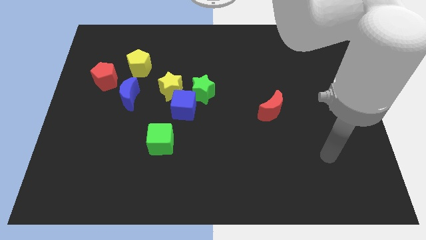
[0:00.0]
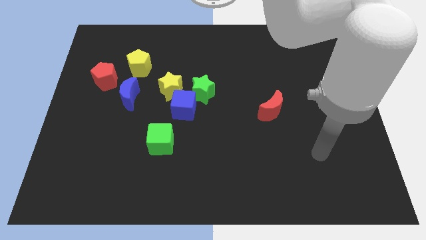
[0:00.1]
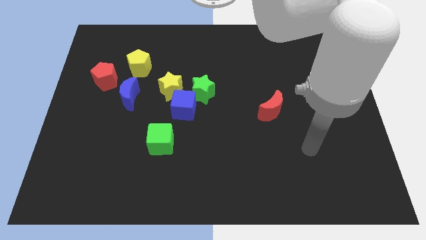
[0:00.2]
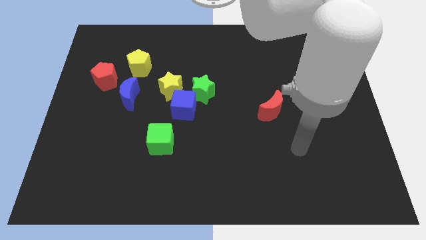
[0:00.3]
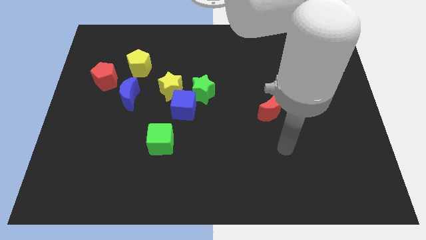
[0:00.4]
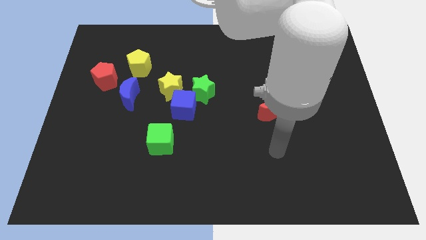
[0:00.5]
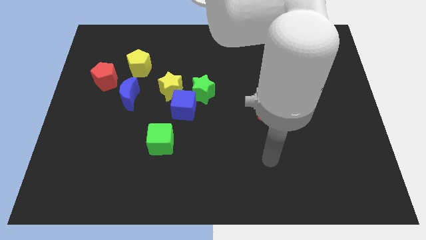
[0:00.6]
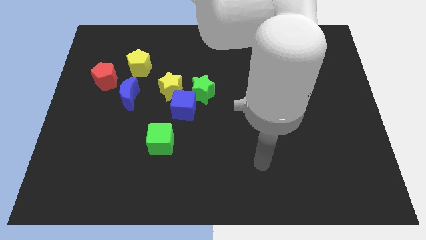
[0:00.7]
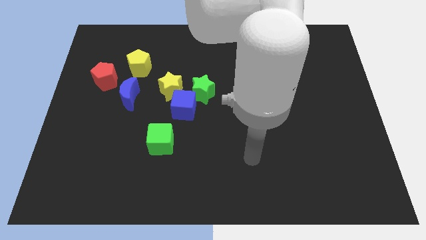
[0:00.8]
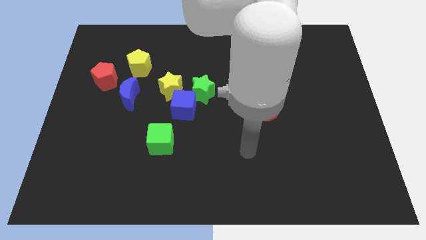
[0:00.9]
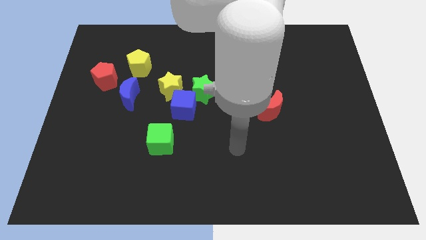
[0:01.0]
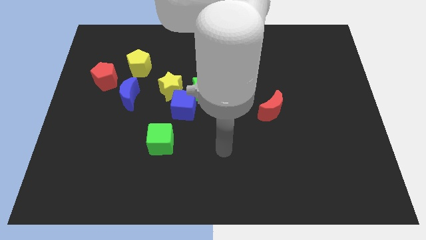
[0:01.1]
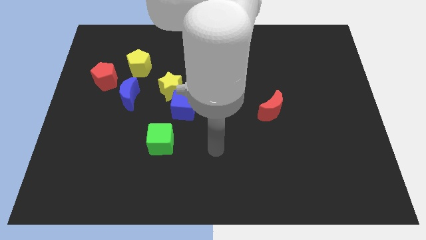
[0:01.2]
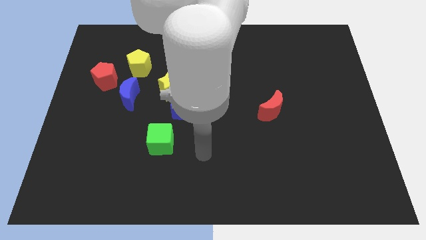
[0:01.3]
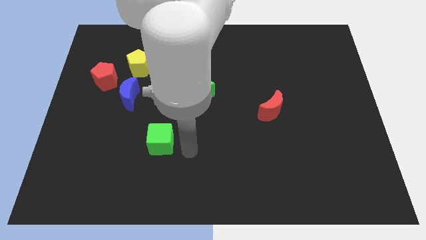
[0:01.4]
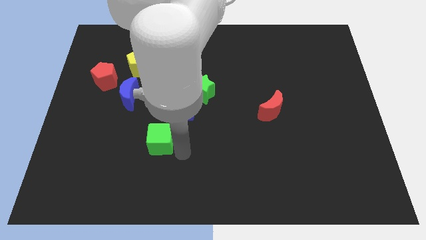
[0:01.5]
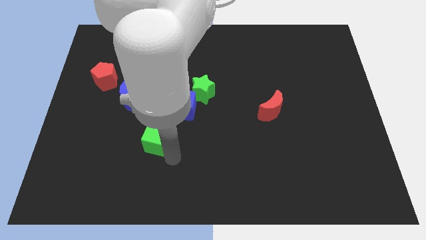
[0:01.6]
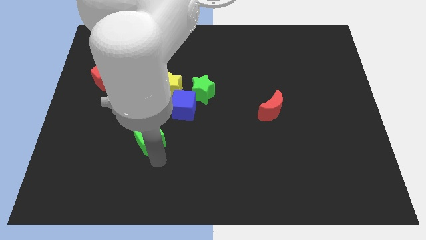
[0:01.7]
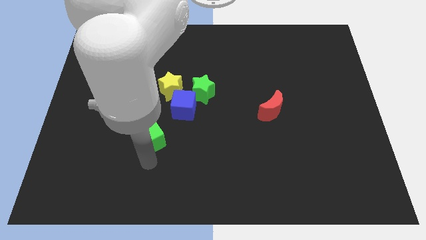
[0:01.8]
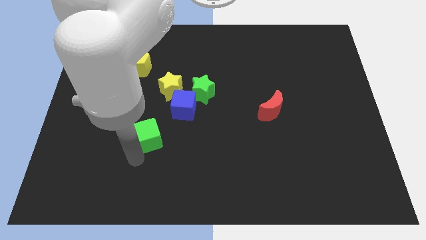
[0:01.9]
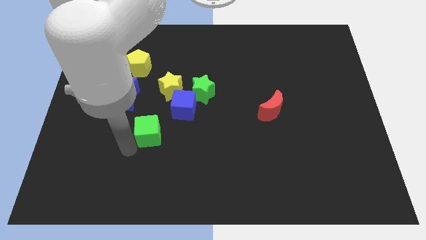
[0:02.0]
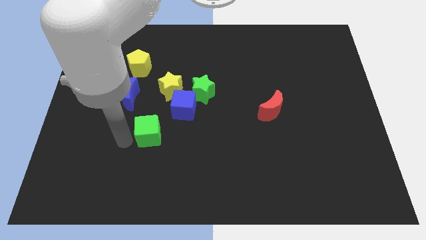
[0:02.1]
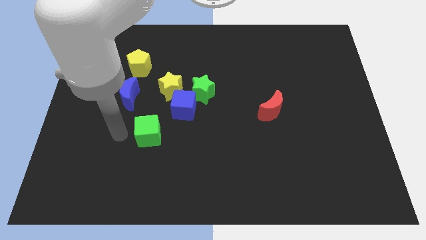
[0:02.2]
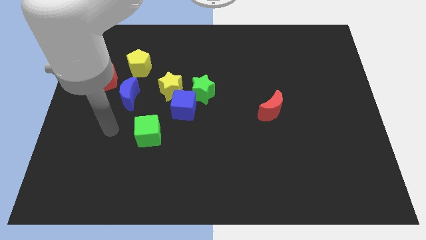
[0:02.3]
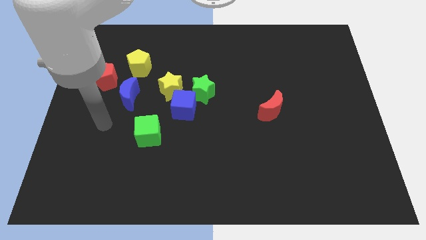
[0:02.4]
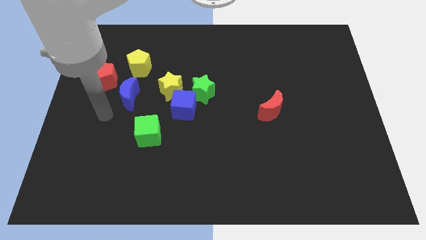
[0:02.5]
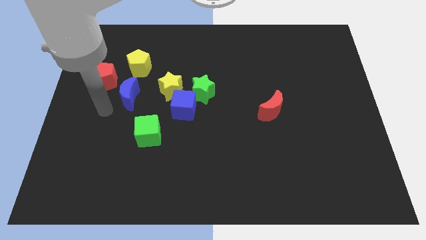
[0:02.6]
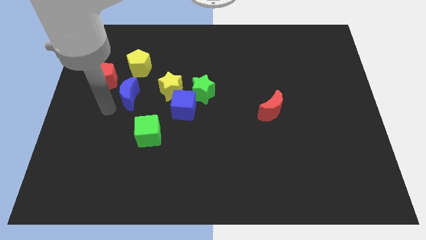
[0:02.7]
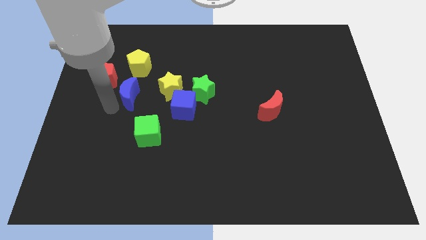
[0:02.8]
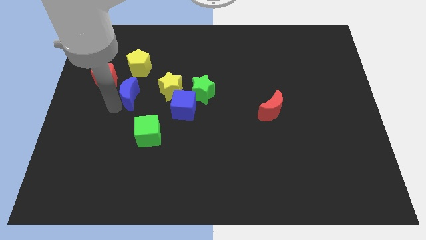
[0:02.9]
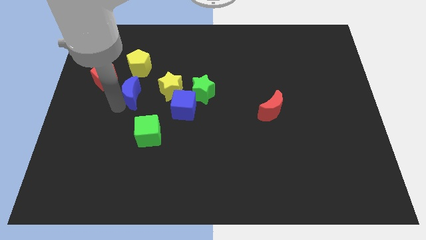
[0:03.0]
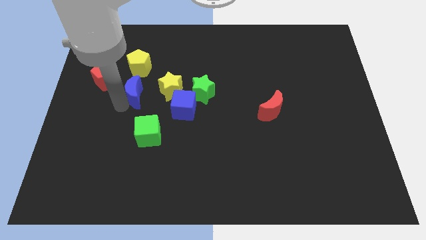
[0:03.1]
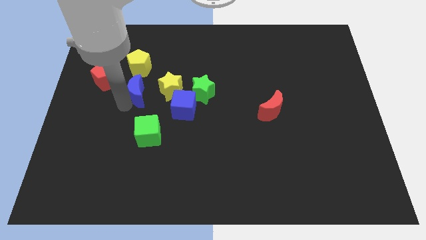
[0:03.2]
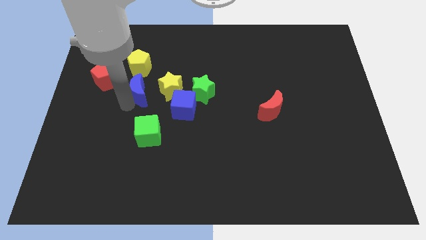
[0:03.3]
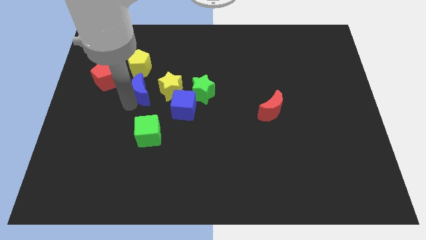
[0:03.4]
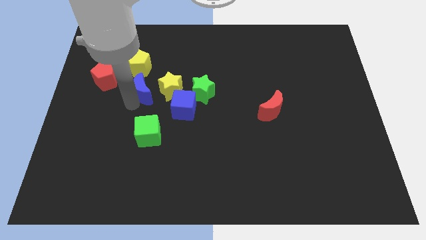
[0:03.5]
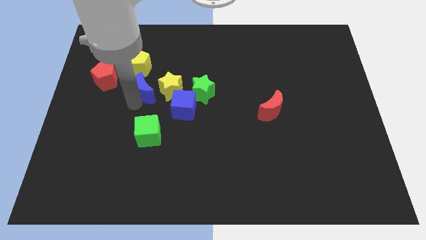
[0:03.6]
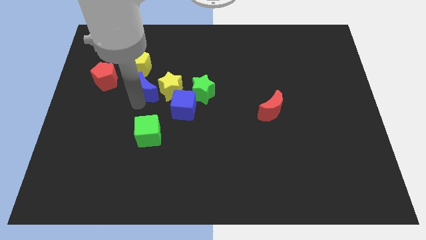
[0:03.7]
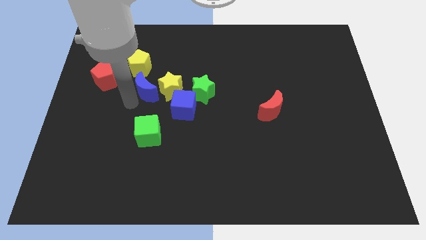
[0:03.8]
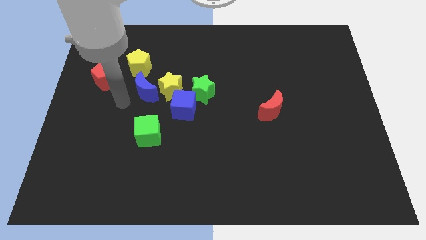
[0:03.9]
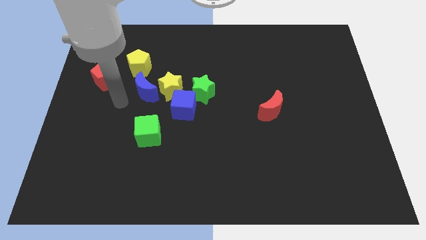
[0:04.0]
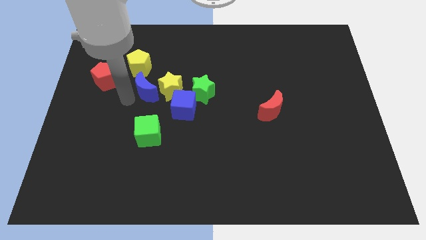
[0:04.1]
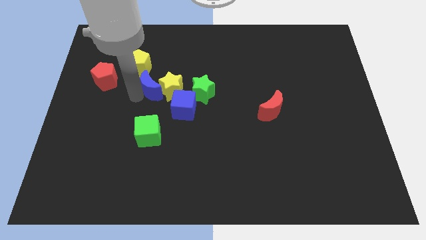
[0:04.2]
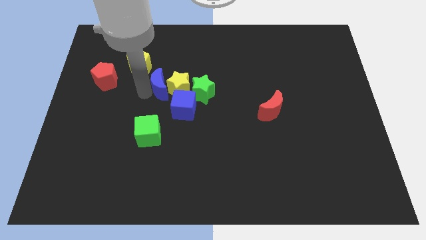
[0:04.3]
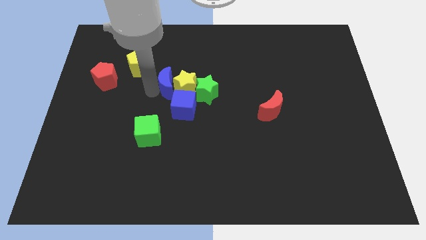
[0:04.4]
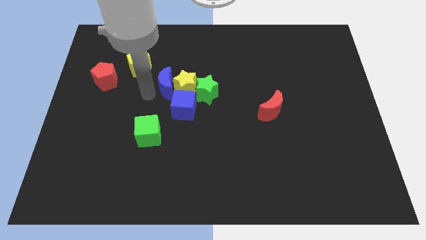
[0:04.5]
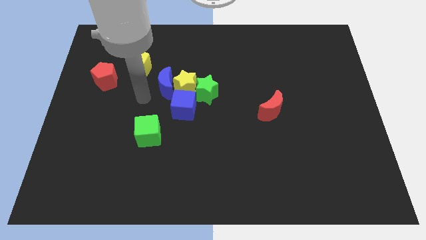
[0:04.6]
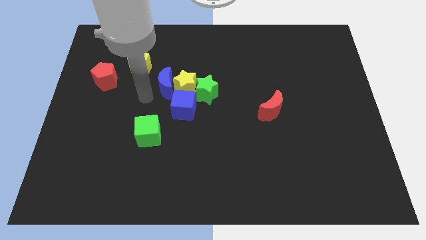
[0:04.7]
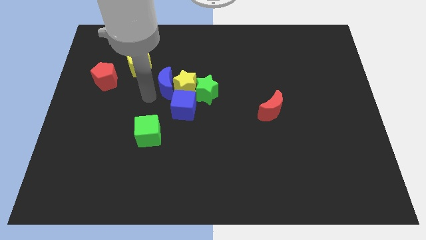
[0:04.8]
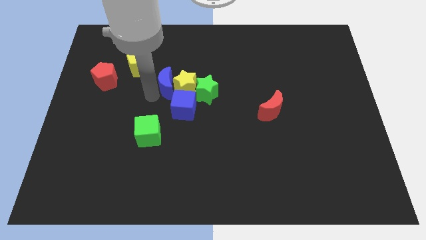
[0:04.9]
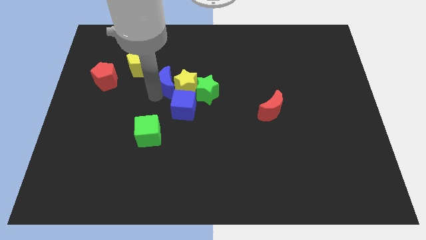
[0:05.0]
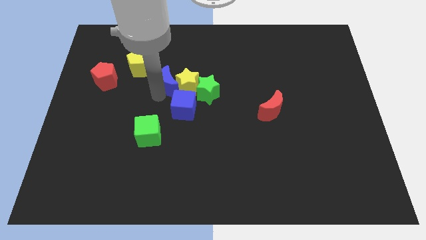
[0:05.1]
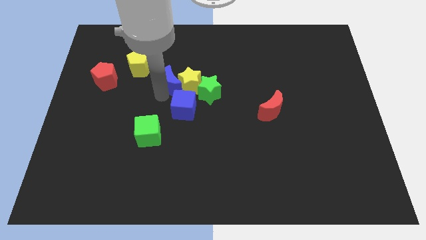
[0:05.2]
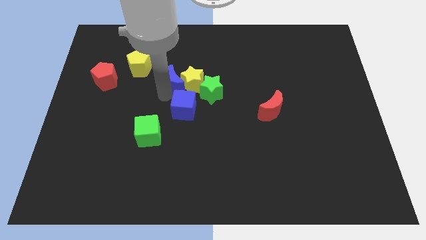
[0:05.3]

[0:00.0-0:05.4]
slide the blue moon diagonally up and to the left of the green star

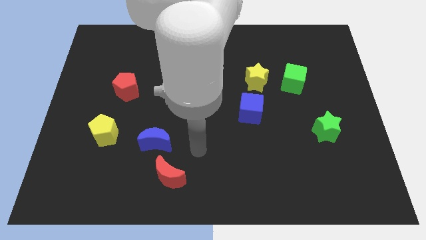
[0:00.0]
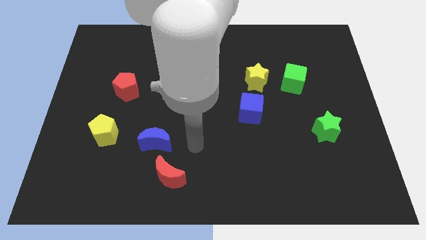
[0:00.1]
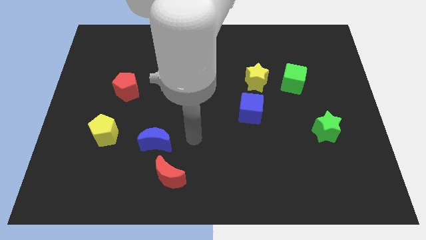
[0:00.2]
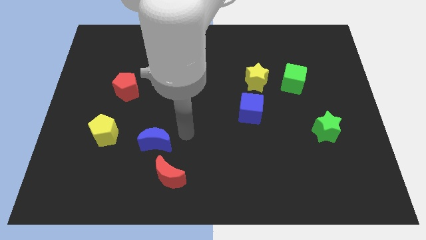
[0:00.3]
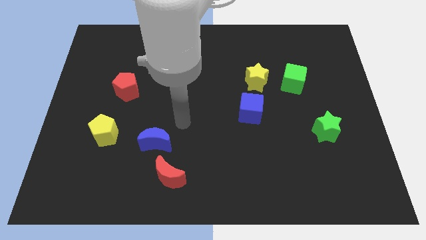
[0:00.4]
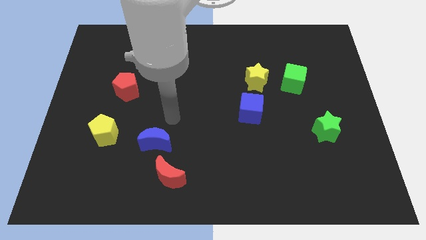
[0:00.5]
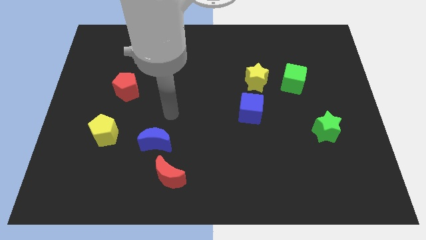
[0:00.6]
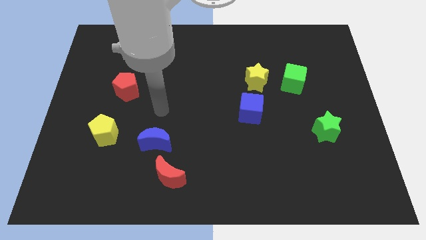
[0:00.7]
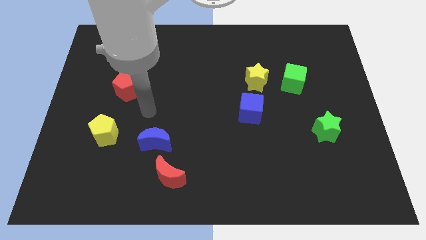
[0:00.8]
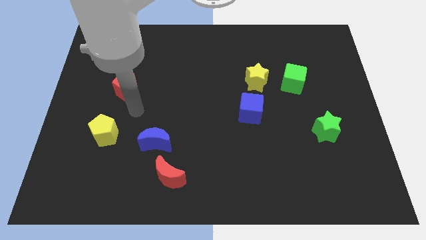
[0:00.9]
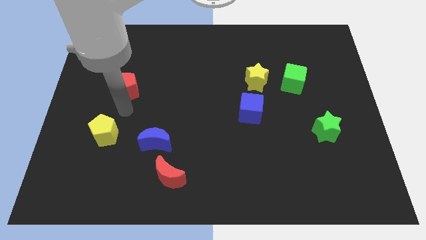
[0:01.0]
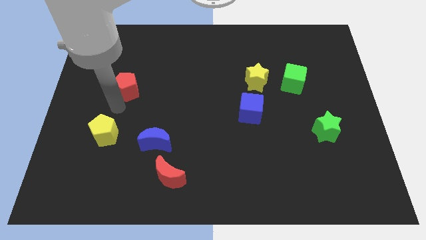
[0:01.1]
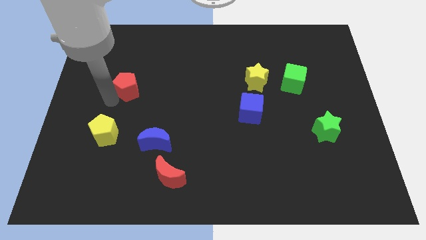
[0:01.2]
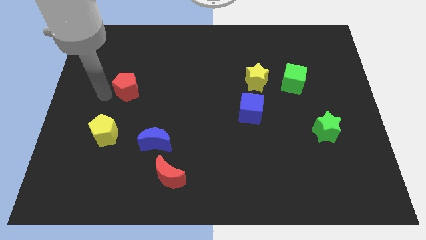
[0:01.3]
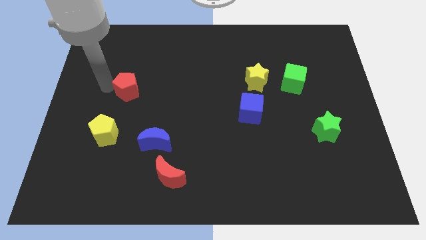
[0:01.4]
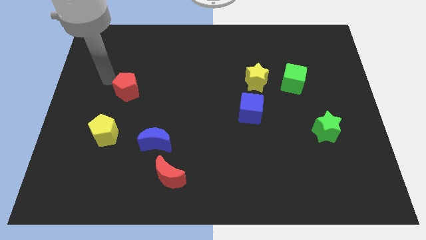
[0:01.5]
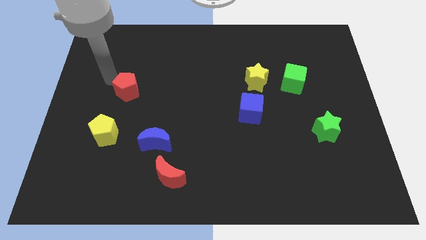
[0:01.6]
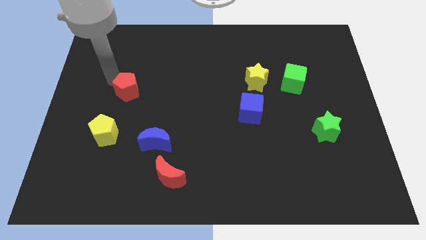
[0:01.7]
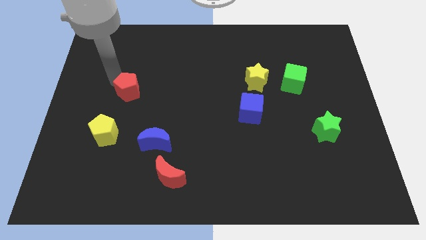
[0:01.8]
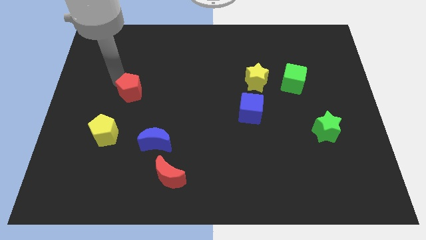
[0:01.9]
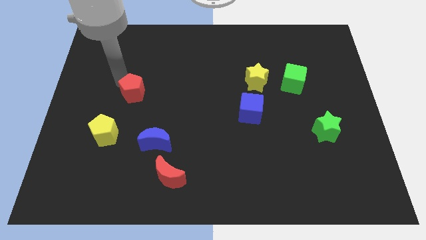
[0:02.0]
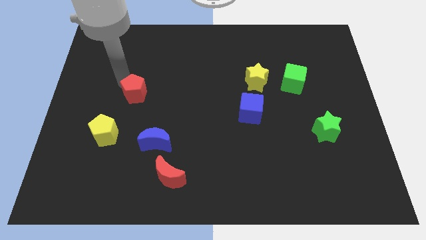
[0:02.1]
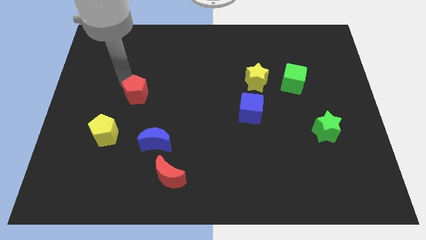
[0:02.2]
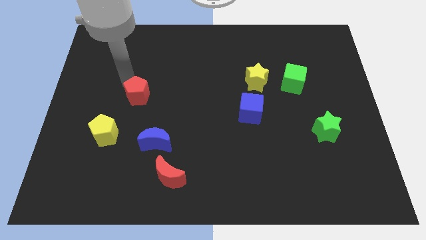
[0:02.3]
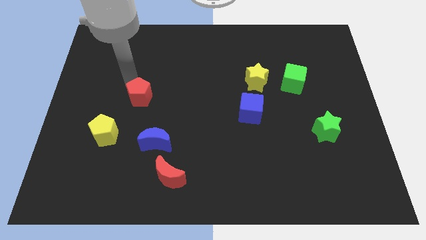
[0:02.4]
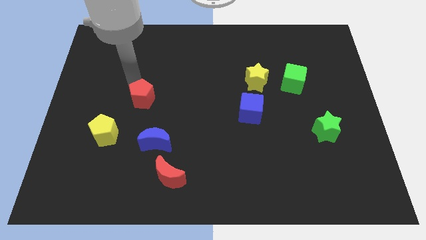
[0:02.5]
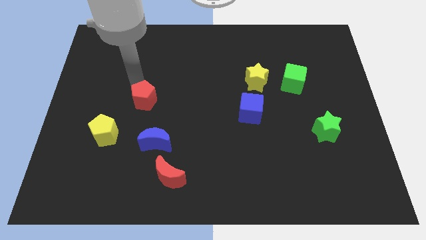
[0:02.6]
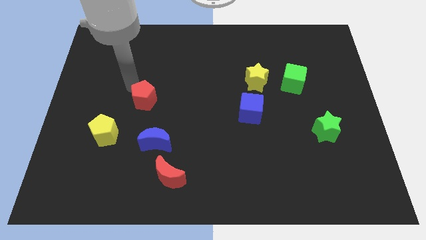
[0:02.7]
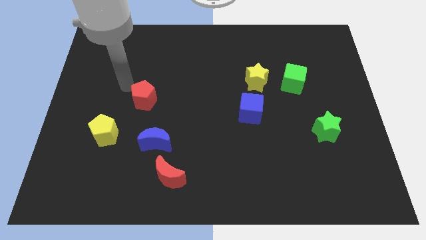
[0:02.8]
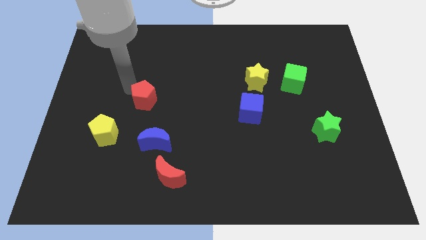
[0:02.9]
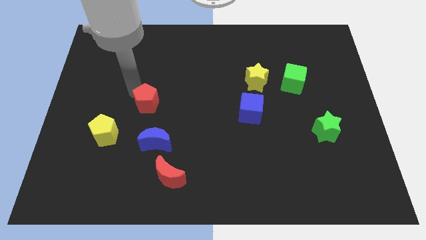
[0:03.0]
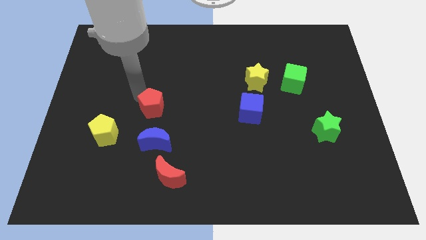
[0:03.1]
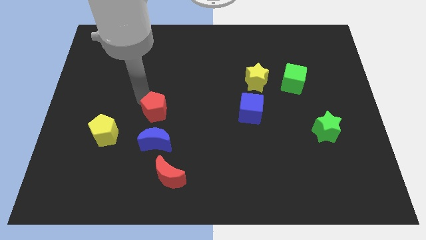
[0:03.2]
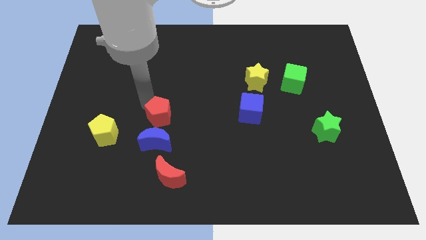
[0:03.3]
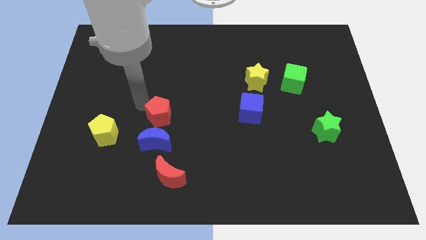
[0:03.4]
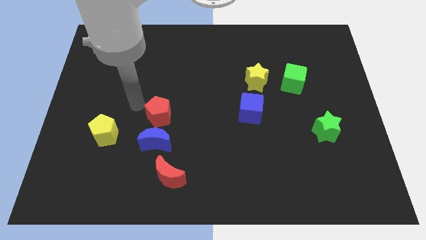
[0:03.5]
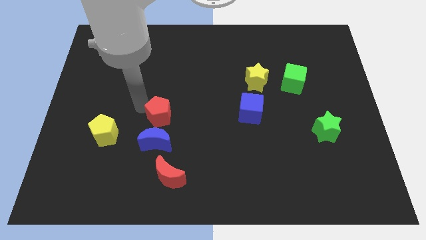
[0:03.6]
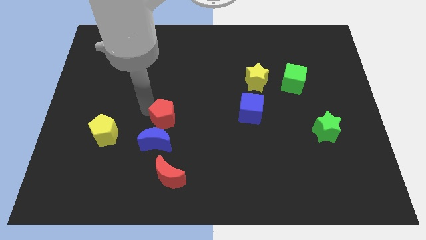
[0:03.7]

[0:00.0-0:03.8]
slide the red pentagon diagonally up and to the right of the blue moon
